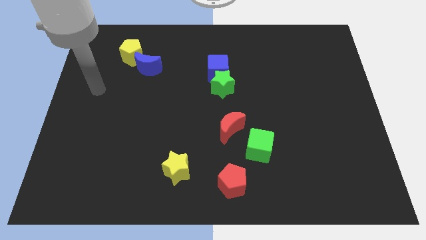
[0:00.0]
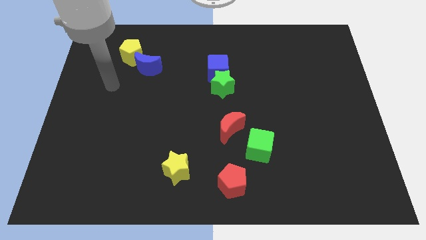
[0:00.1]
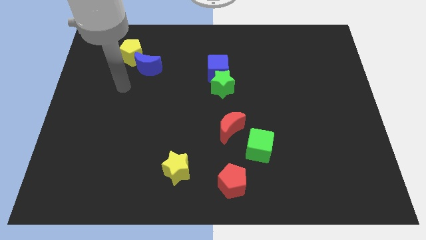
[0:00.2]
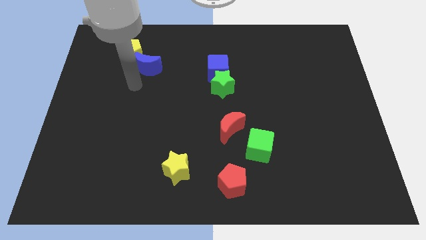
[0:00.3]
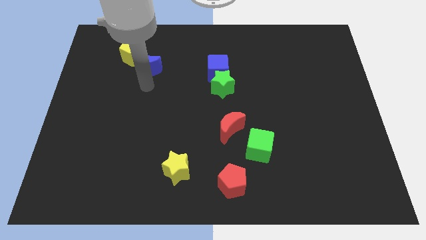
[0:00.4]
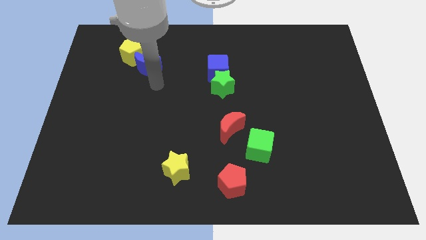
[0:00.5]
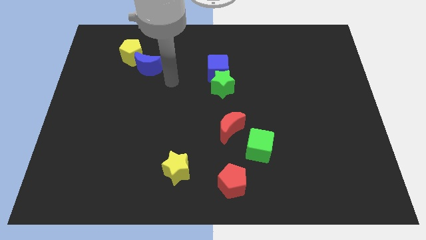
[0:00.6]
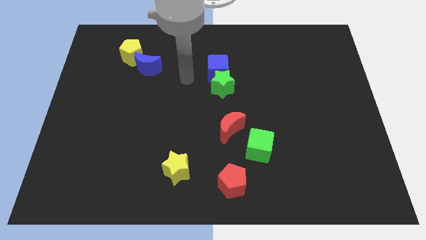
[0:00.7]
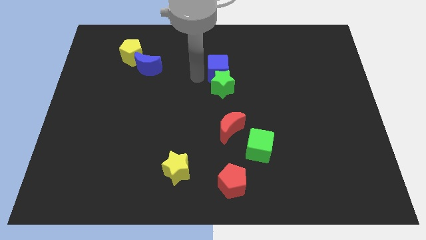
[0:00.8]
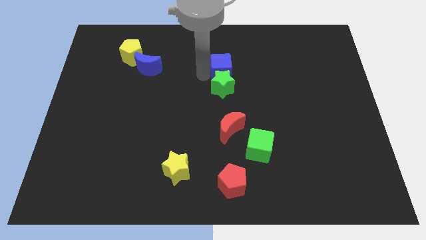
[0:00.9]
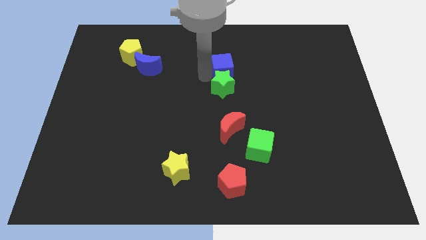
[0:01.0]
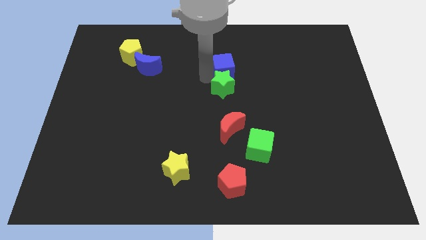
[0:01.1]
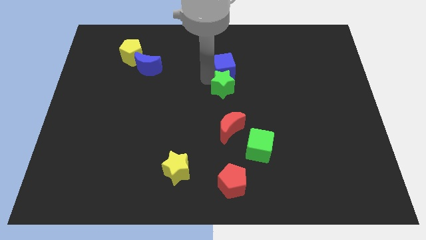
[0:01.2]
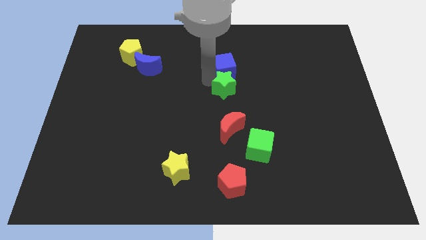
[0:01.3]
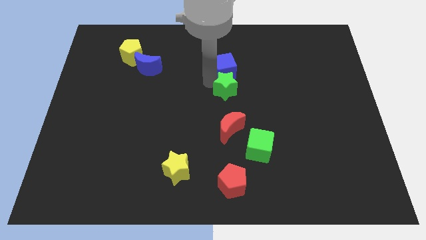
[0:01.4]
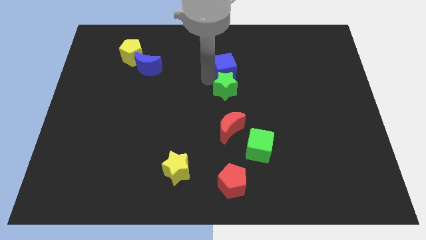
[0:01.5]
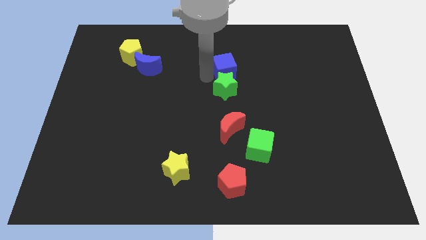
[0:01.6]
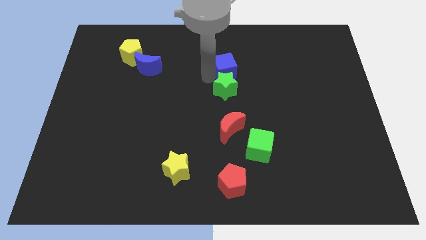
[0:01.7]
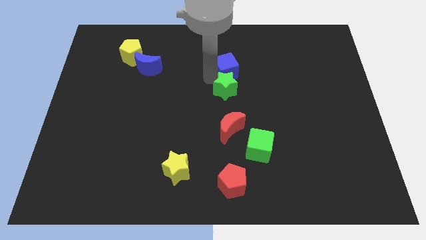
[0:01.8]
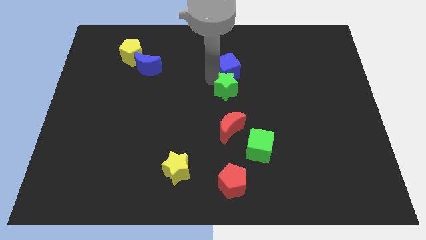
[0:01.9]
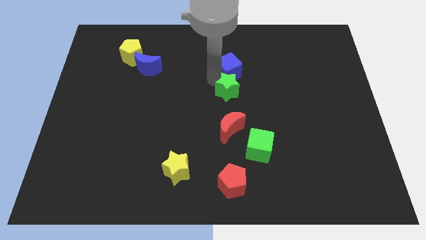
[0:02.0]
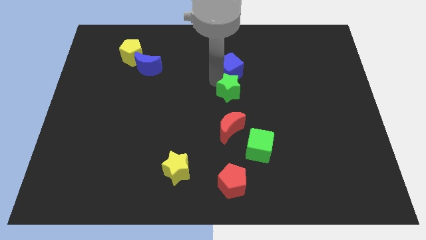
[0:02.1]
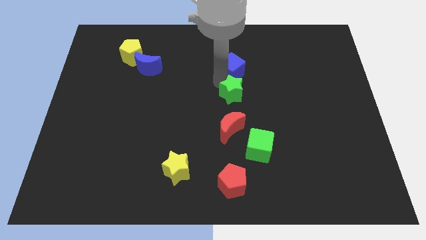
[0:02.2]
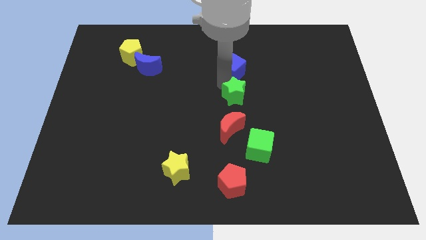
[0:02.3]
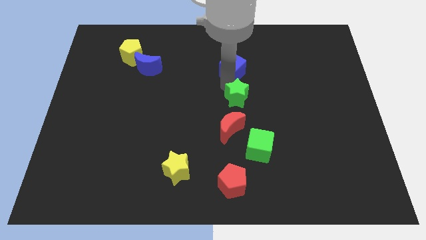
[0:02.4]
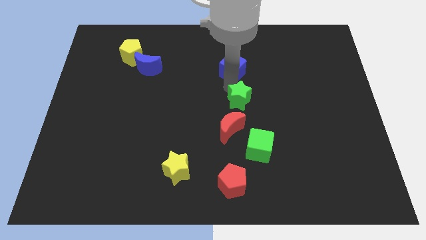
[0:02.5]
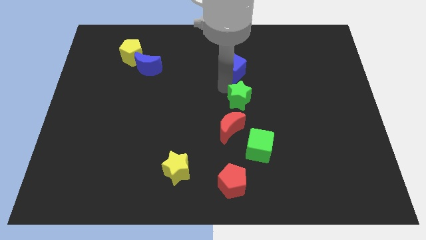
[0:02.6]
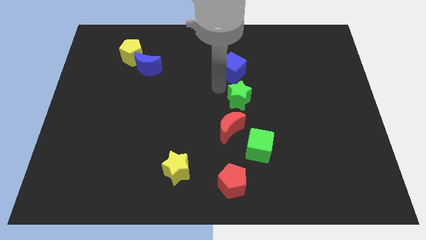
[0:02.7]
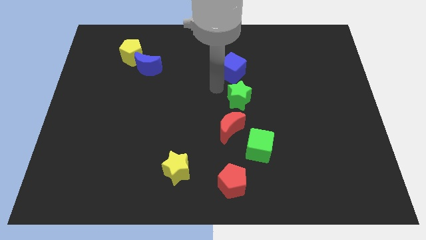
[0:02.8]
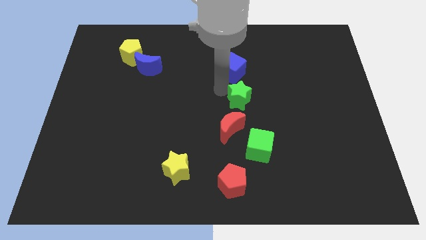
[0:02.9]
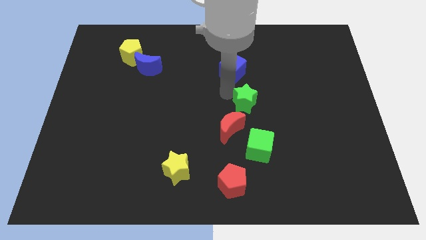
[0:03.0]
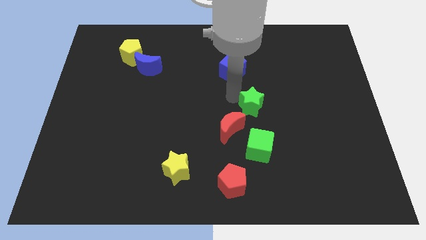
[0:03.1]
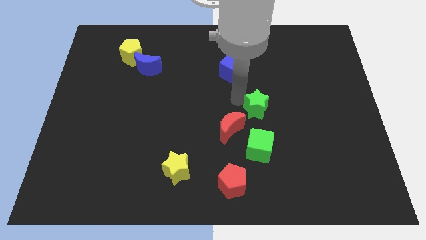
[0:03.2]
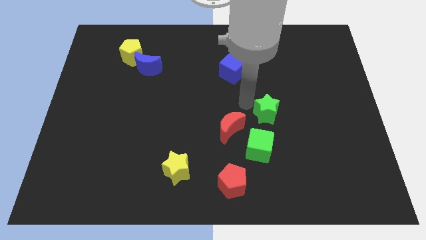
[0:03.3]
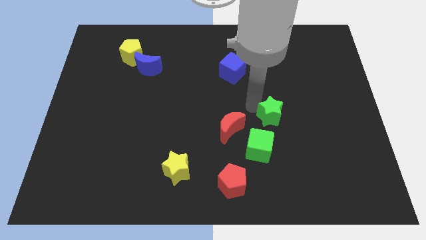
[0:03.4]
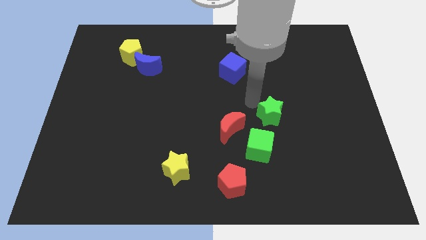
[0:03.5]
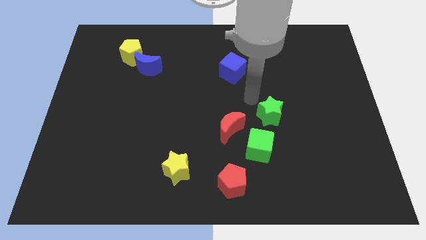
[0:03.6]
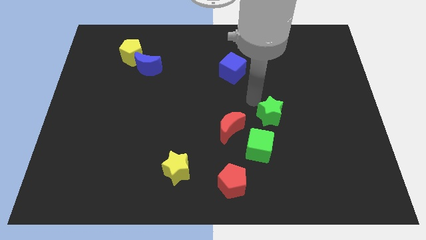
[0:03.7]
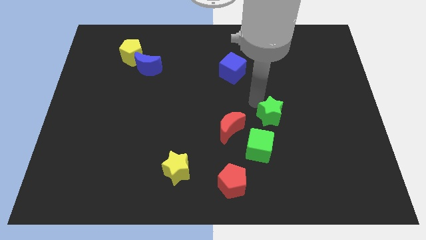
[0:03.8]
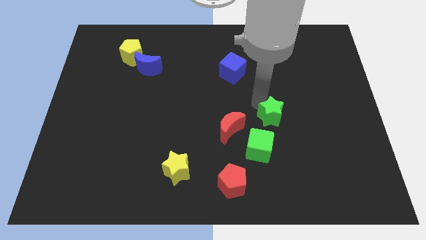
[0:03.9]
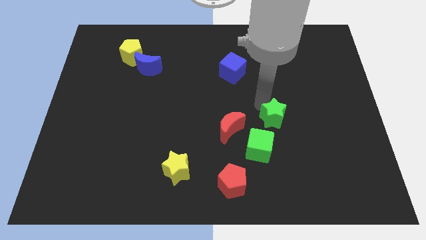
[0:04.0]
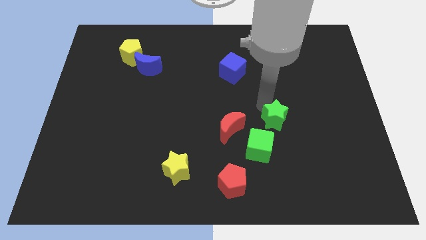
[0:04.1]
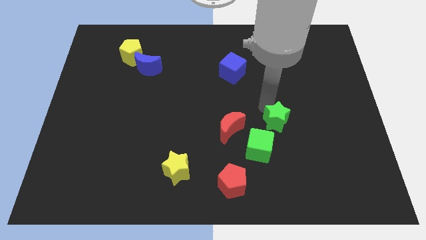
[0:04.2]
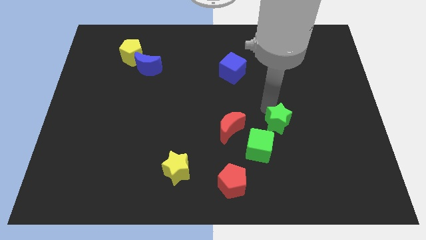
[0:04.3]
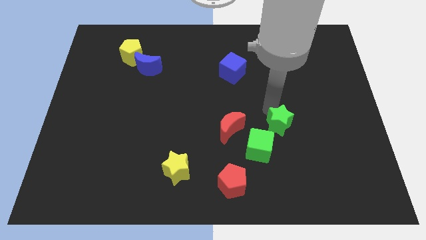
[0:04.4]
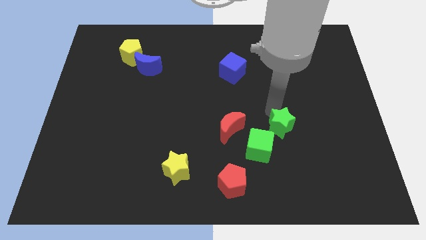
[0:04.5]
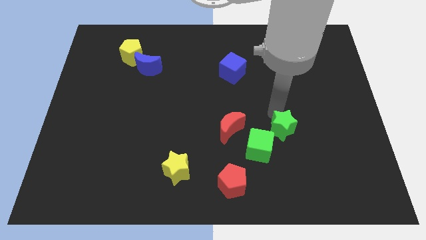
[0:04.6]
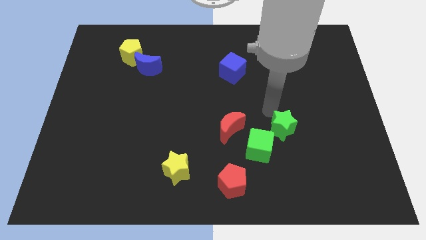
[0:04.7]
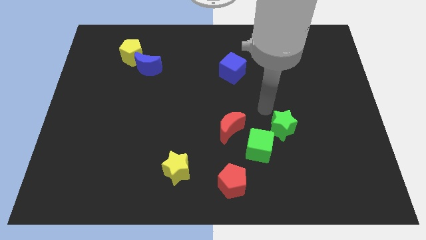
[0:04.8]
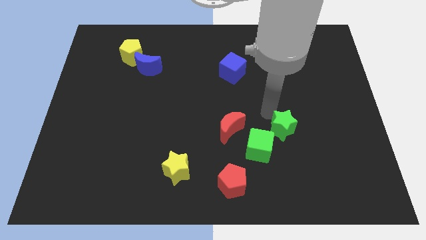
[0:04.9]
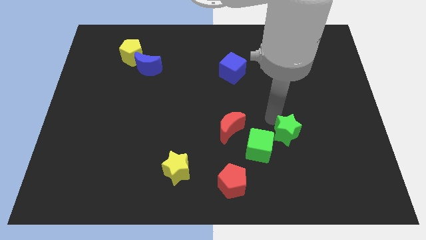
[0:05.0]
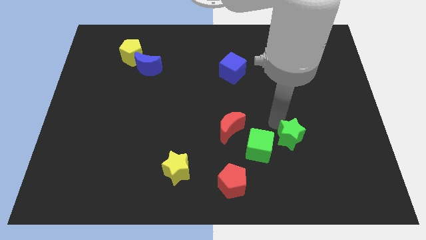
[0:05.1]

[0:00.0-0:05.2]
move the green star down and then to the right

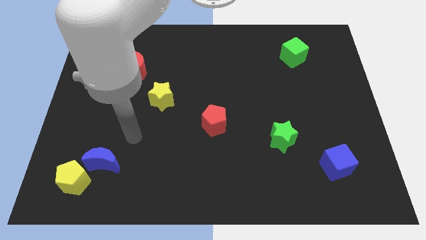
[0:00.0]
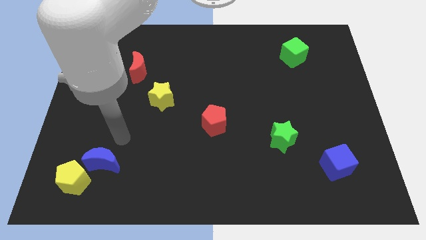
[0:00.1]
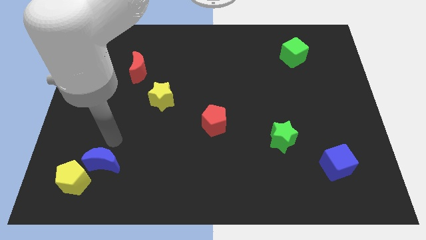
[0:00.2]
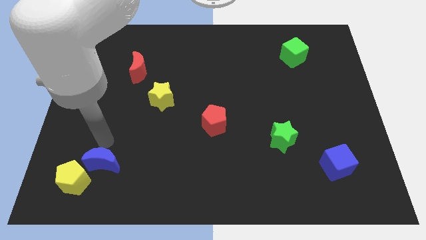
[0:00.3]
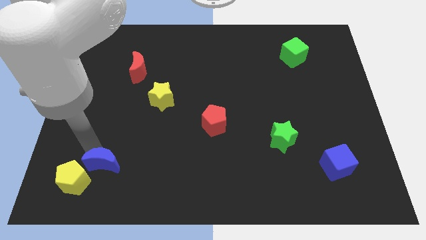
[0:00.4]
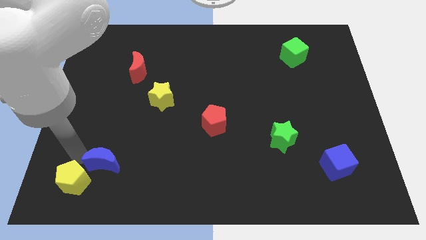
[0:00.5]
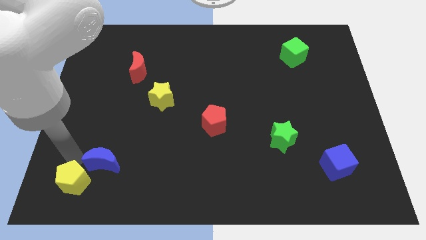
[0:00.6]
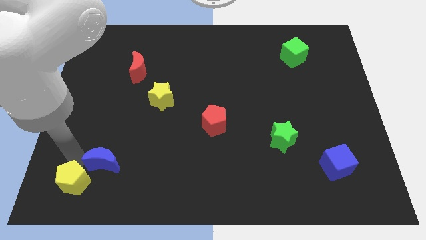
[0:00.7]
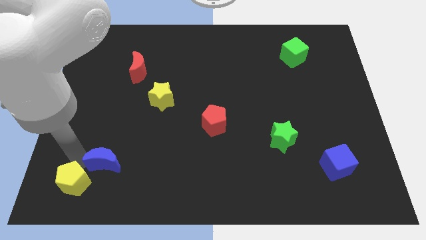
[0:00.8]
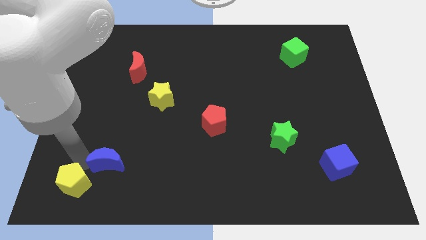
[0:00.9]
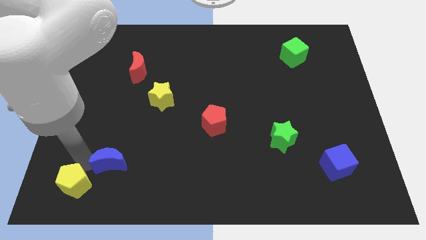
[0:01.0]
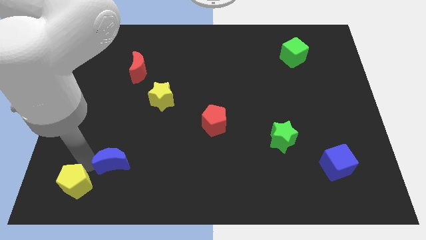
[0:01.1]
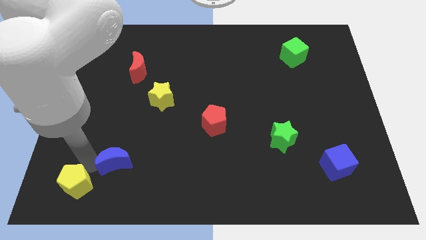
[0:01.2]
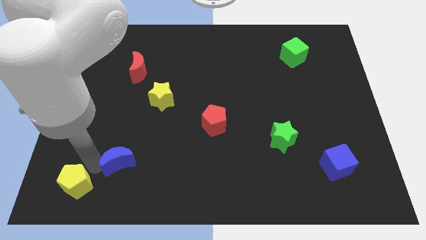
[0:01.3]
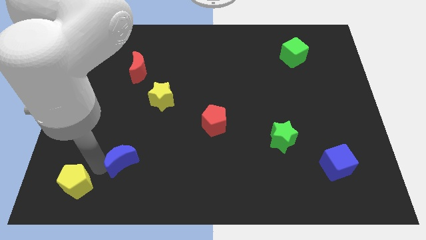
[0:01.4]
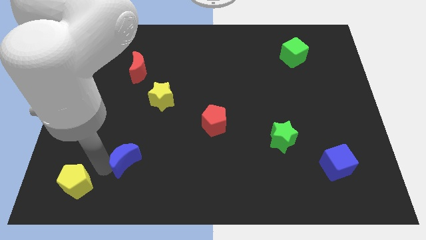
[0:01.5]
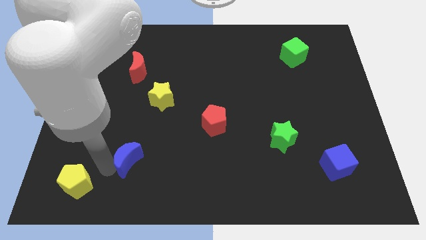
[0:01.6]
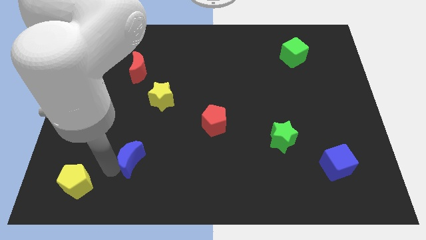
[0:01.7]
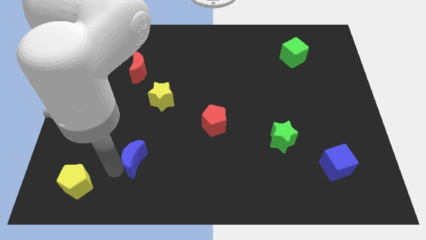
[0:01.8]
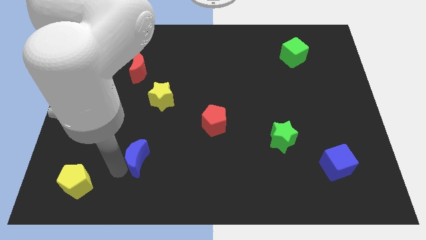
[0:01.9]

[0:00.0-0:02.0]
slide the blue moon a little right

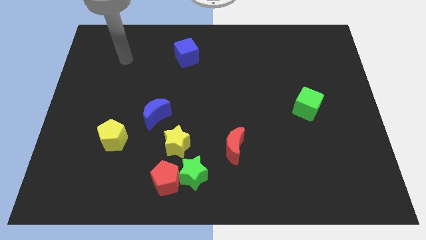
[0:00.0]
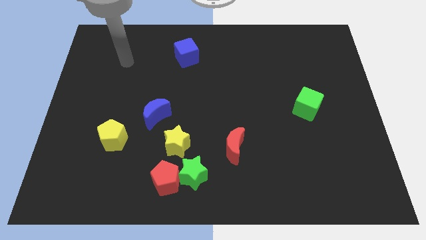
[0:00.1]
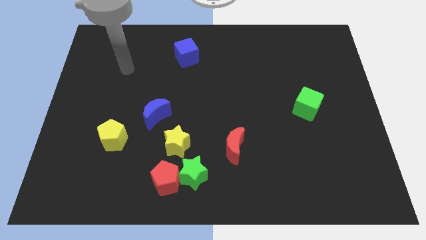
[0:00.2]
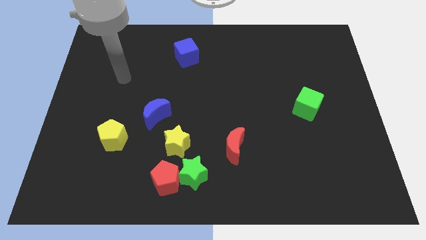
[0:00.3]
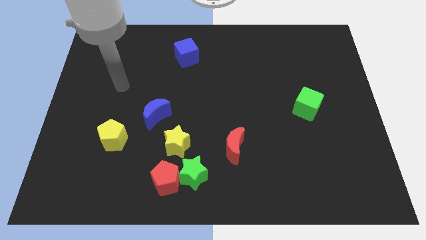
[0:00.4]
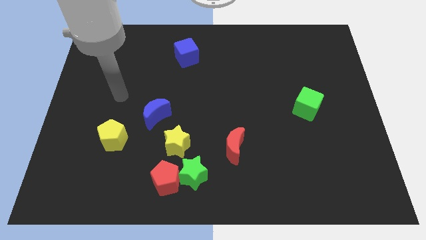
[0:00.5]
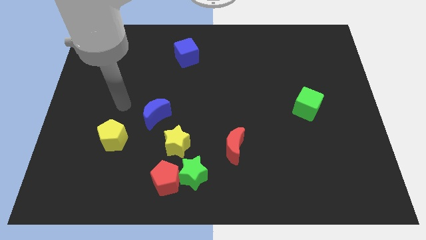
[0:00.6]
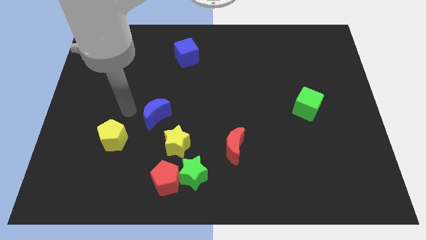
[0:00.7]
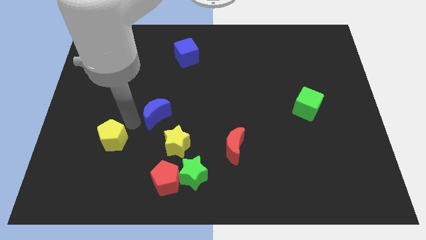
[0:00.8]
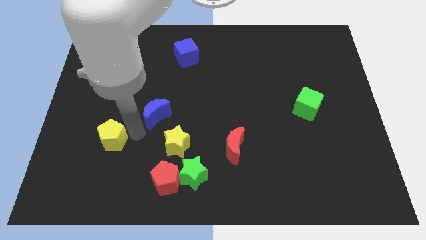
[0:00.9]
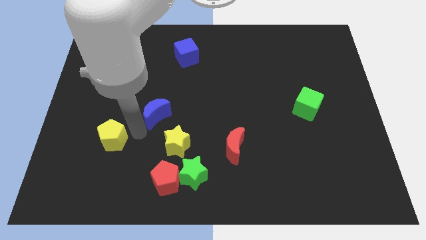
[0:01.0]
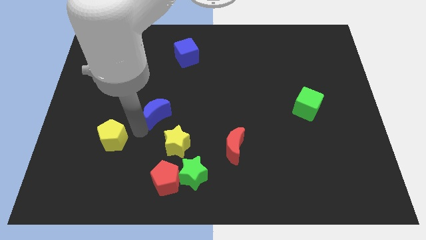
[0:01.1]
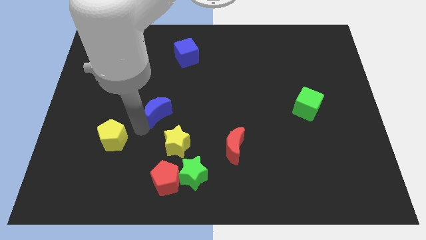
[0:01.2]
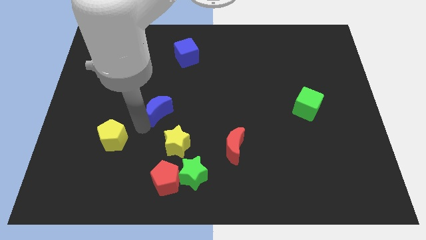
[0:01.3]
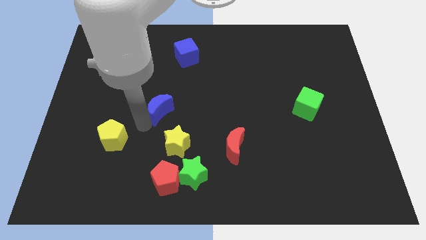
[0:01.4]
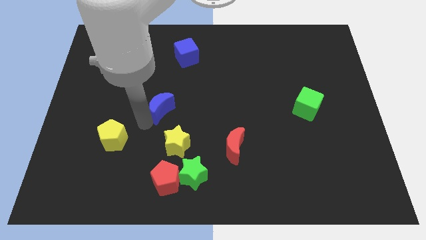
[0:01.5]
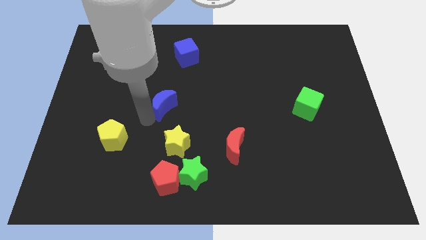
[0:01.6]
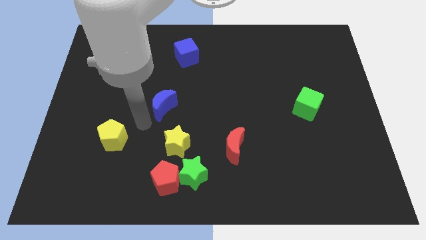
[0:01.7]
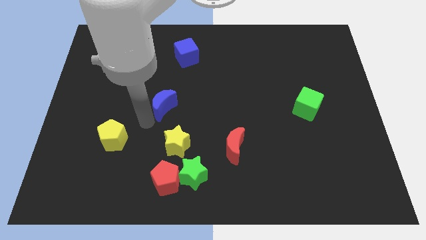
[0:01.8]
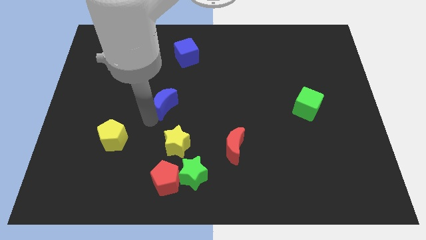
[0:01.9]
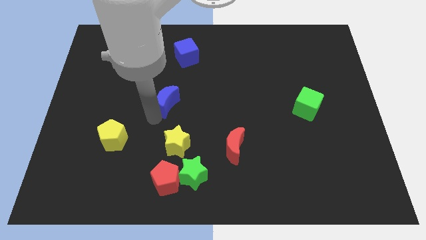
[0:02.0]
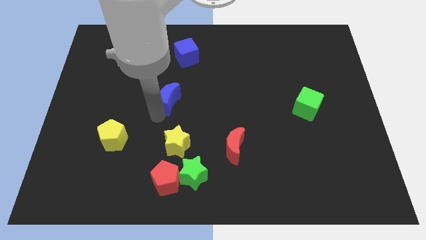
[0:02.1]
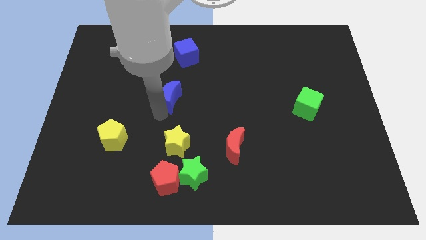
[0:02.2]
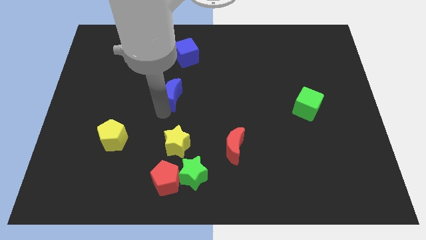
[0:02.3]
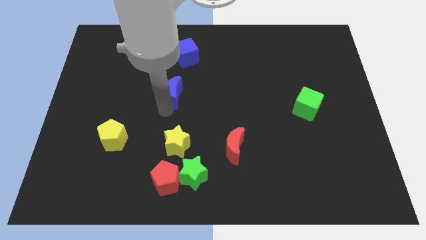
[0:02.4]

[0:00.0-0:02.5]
slide the blue moon a little upwards and to the right
